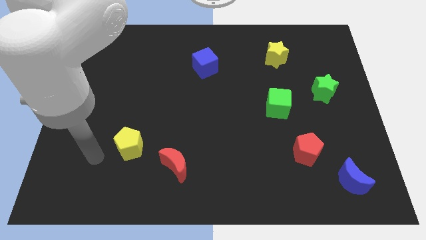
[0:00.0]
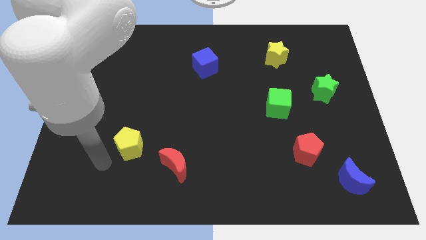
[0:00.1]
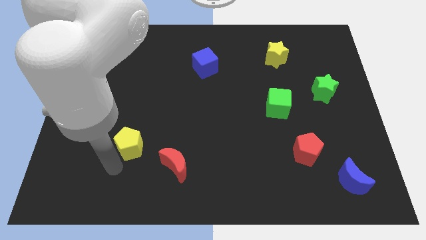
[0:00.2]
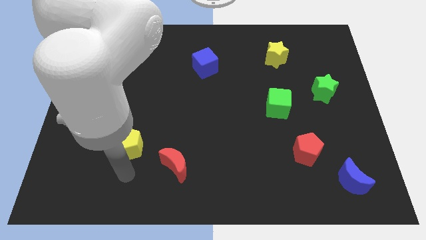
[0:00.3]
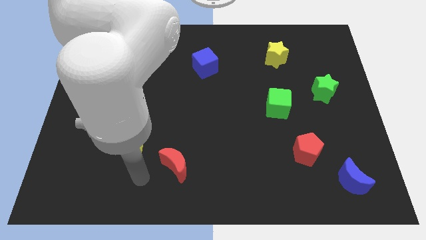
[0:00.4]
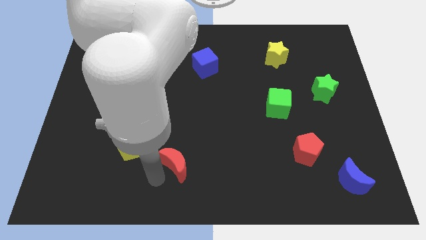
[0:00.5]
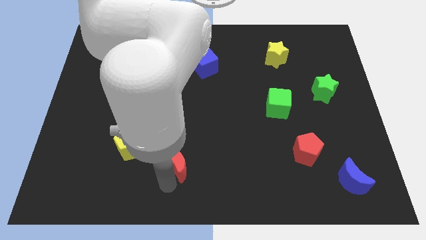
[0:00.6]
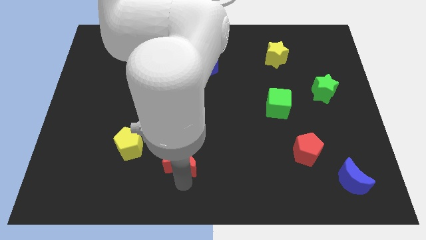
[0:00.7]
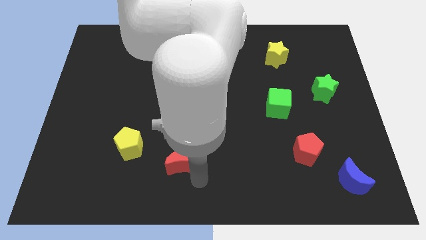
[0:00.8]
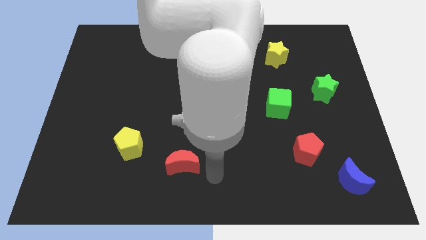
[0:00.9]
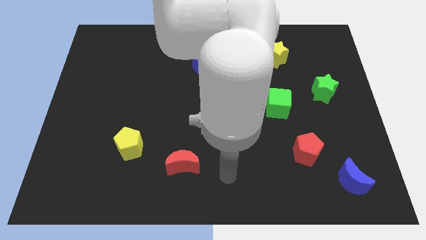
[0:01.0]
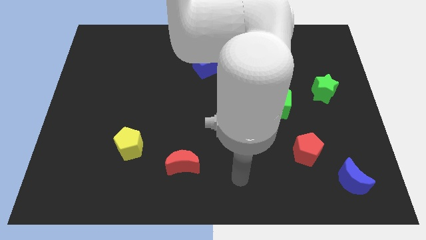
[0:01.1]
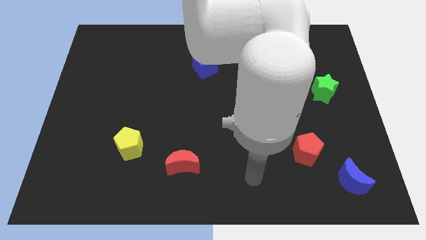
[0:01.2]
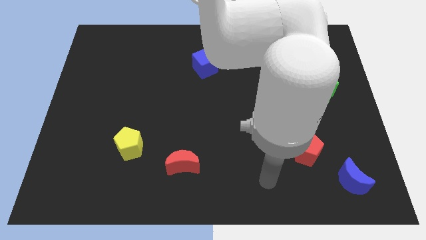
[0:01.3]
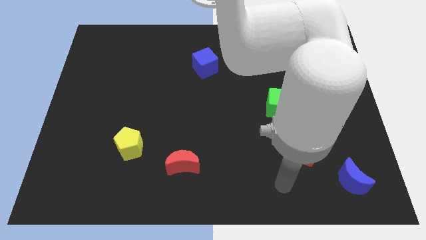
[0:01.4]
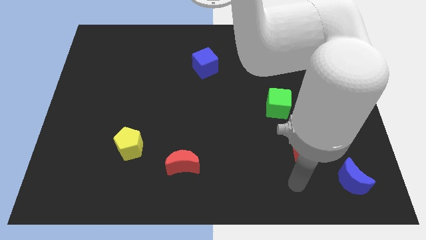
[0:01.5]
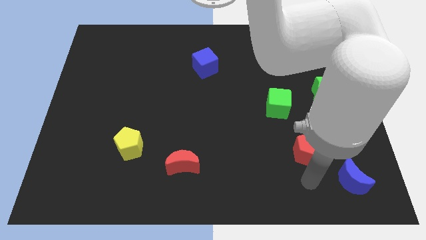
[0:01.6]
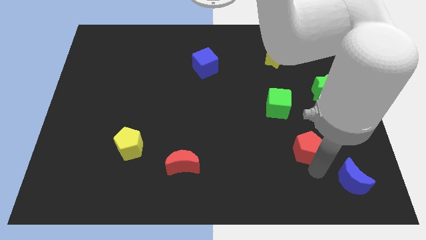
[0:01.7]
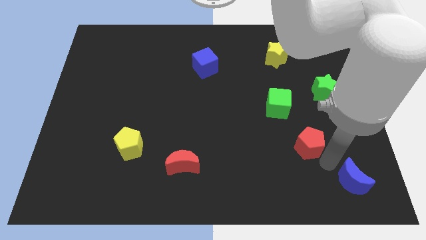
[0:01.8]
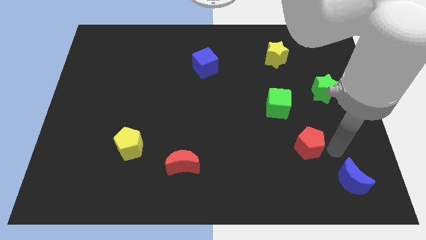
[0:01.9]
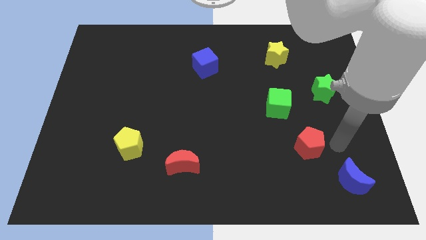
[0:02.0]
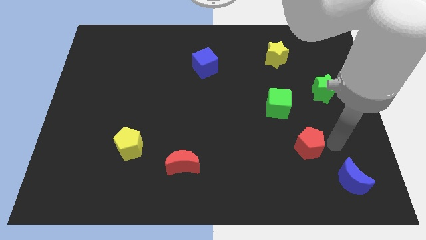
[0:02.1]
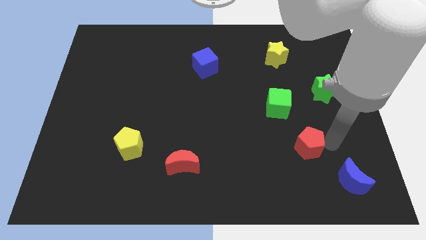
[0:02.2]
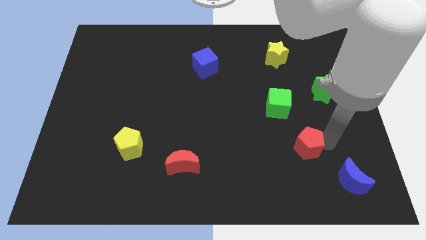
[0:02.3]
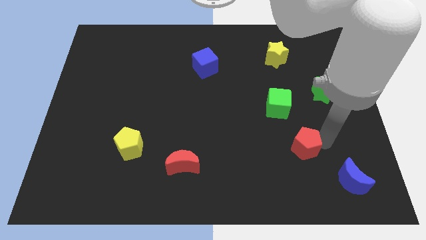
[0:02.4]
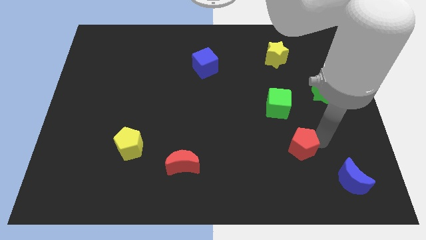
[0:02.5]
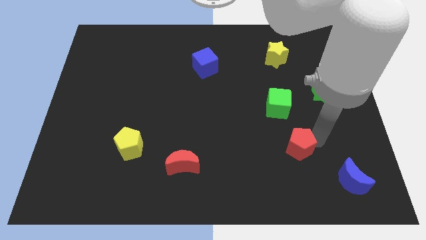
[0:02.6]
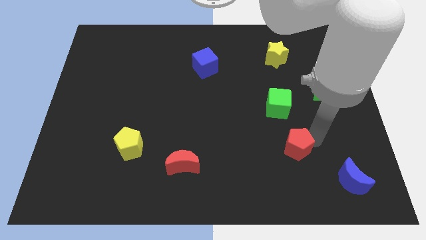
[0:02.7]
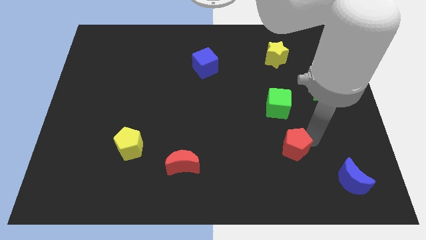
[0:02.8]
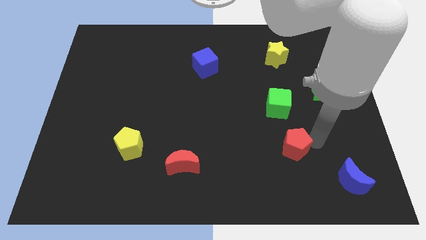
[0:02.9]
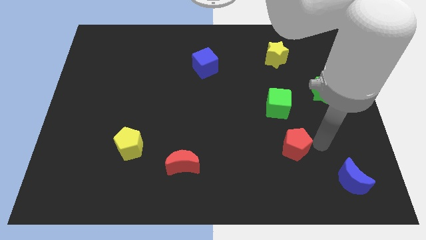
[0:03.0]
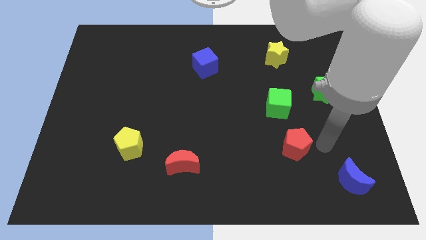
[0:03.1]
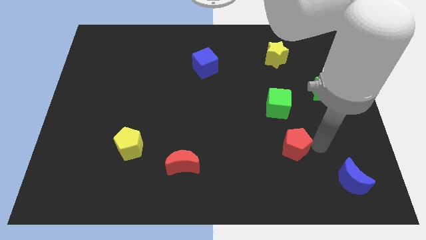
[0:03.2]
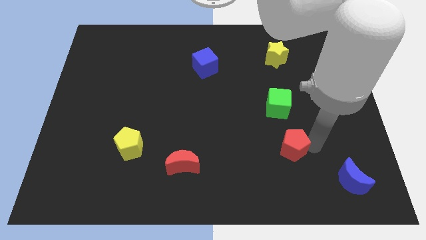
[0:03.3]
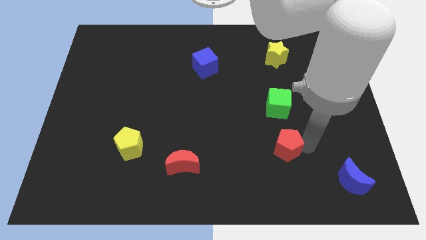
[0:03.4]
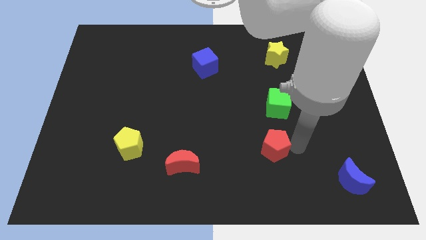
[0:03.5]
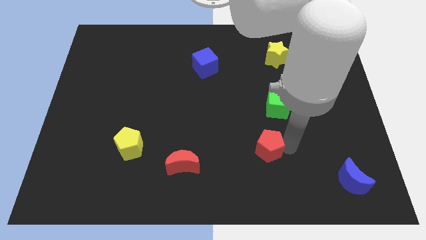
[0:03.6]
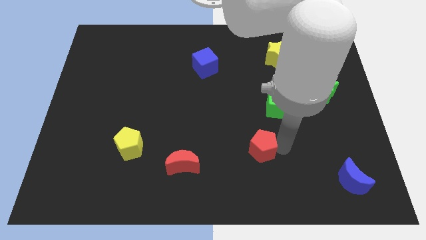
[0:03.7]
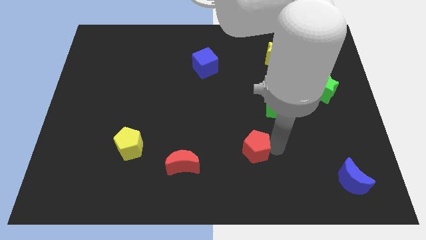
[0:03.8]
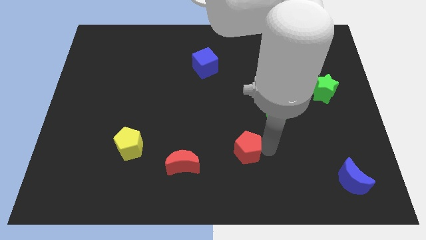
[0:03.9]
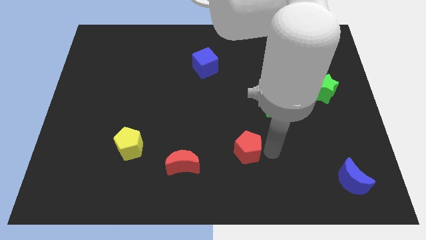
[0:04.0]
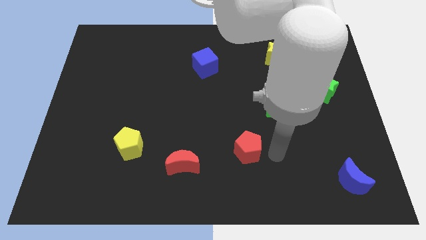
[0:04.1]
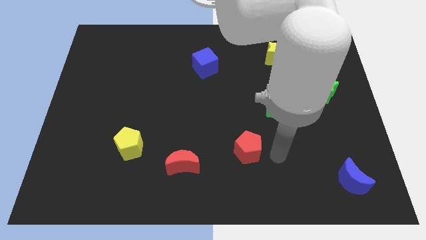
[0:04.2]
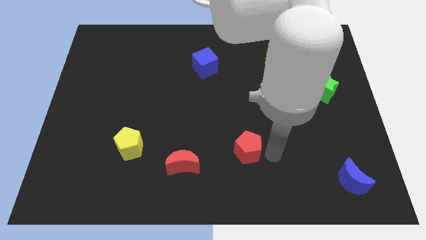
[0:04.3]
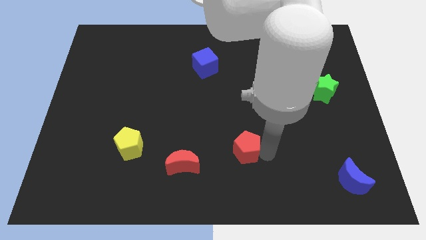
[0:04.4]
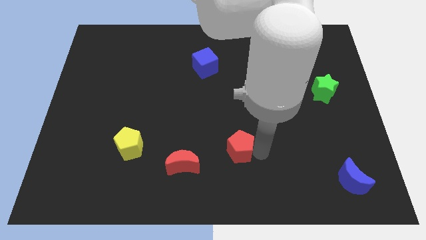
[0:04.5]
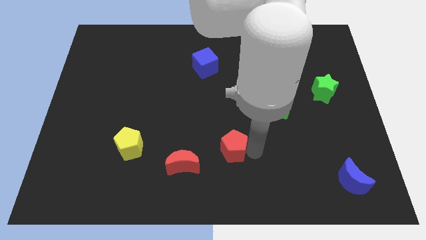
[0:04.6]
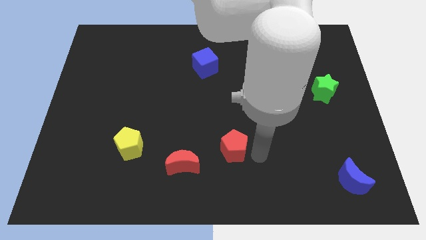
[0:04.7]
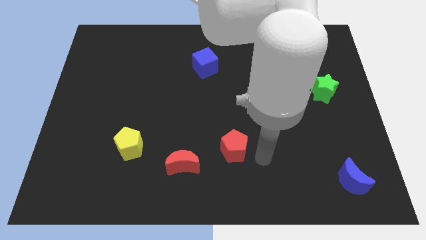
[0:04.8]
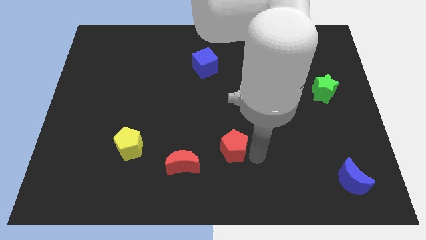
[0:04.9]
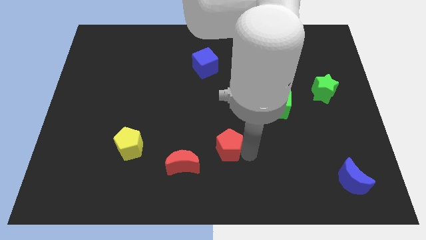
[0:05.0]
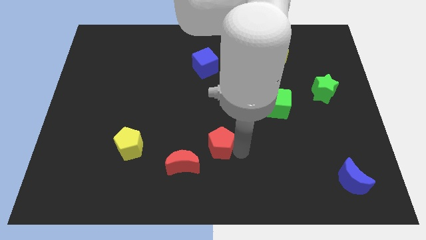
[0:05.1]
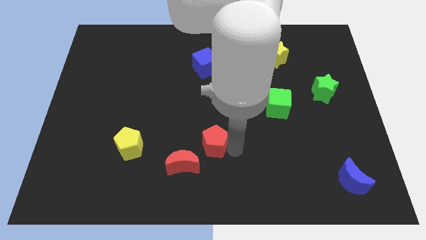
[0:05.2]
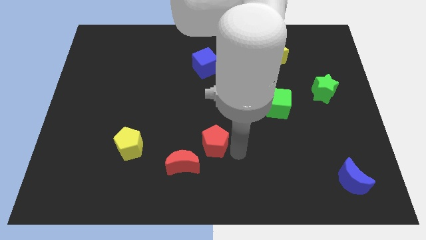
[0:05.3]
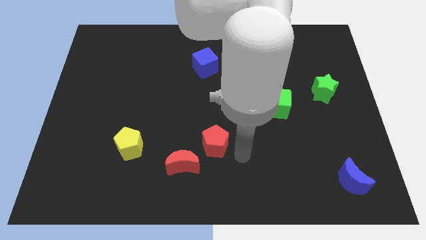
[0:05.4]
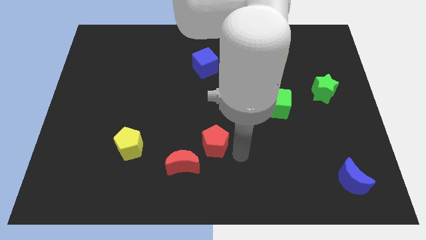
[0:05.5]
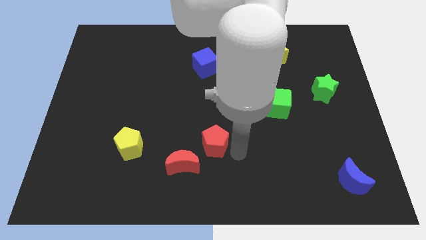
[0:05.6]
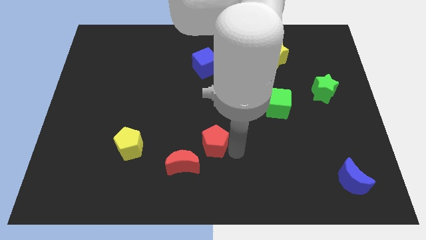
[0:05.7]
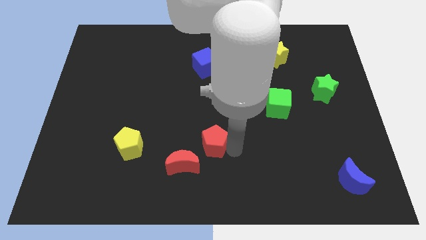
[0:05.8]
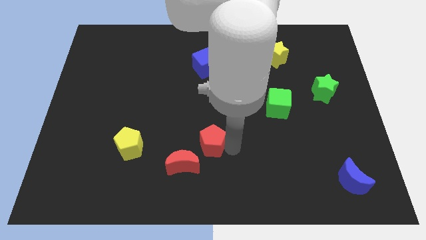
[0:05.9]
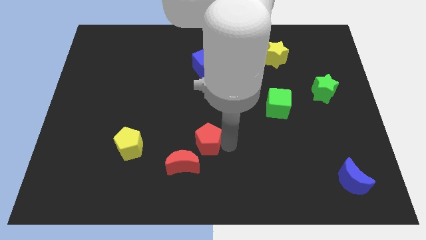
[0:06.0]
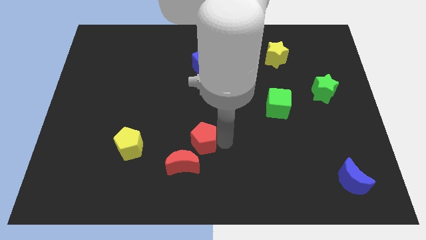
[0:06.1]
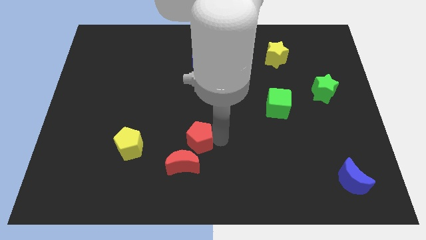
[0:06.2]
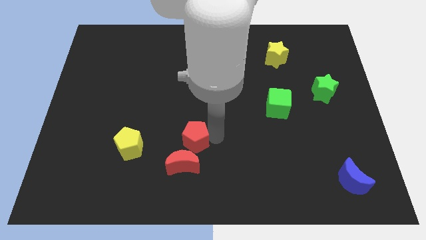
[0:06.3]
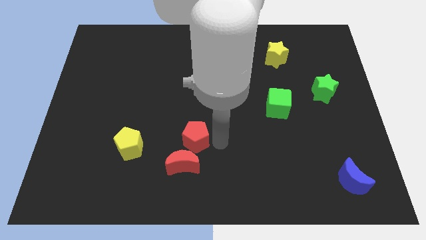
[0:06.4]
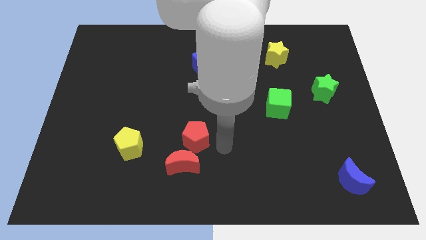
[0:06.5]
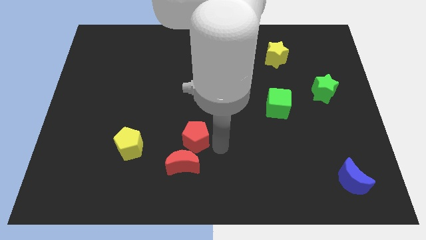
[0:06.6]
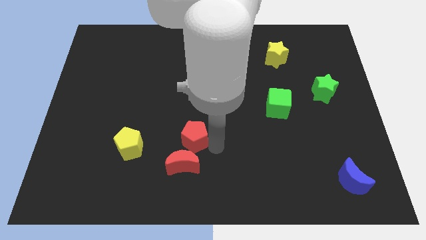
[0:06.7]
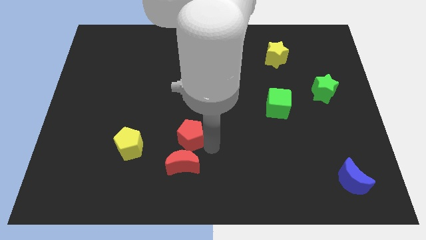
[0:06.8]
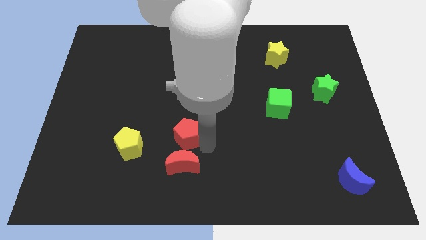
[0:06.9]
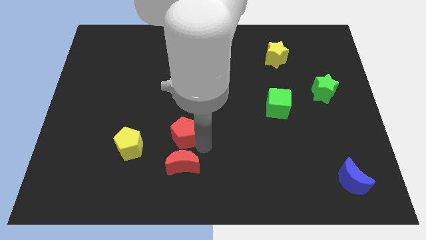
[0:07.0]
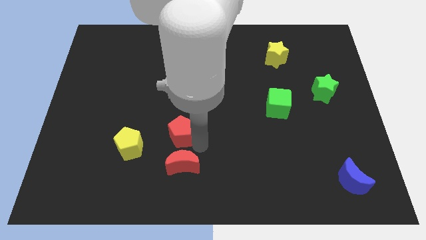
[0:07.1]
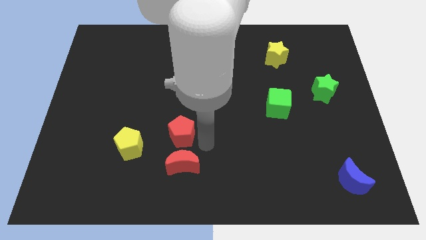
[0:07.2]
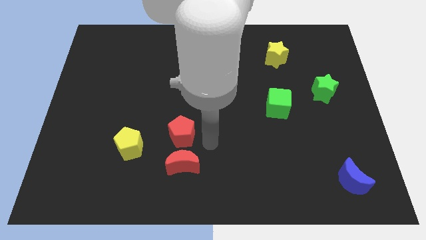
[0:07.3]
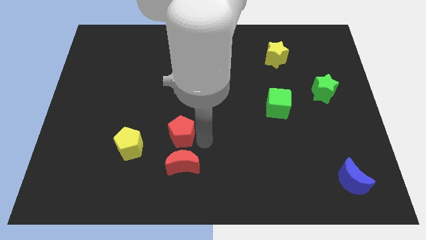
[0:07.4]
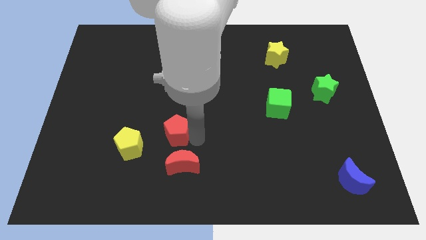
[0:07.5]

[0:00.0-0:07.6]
put the red pentagon to the top right side of the yellow pentagon
